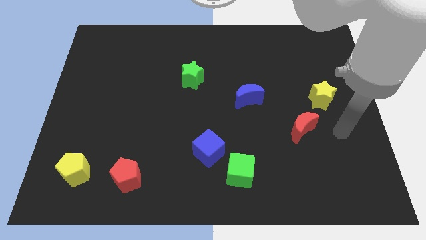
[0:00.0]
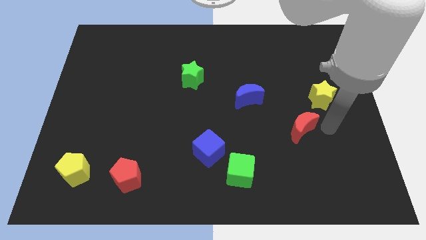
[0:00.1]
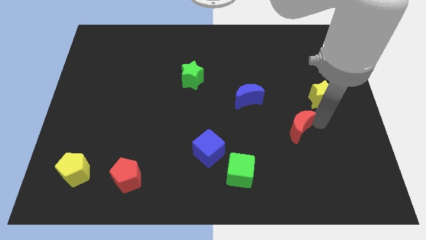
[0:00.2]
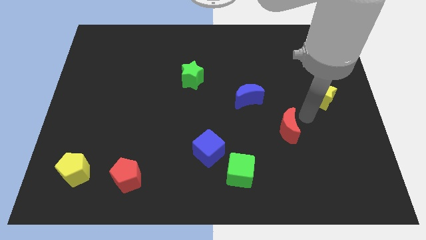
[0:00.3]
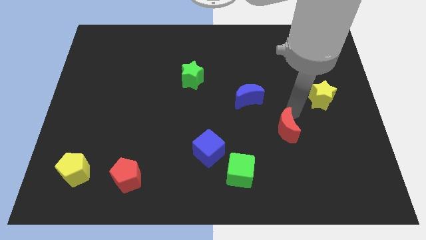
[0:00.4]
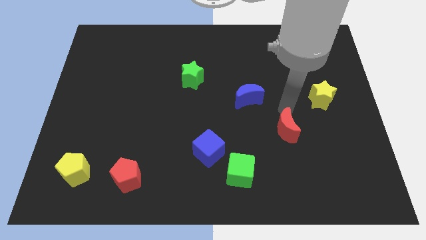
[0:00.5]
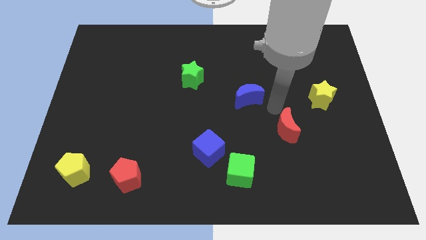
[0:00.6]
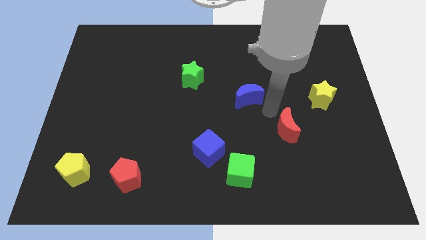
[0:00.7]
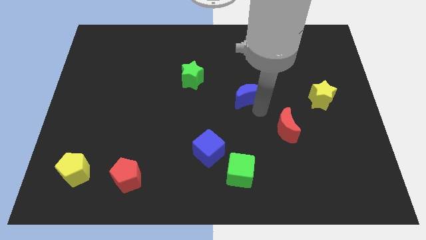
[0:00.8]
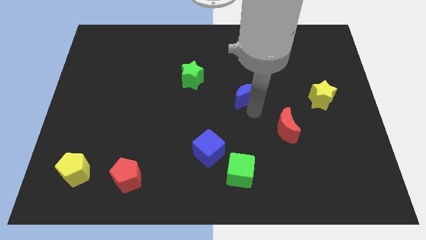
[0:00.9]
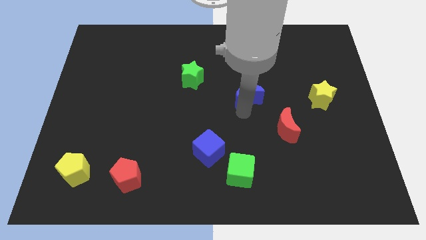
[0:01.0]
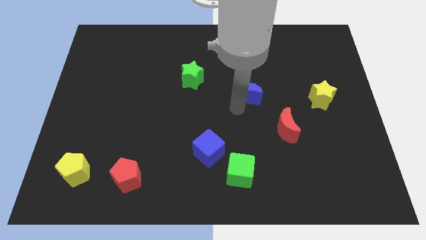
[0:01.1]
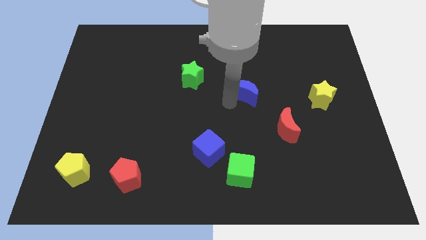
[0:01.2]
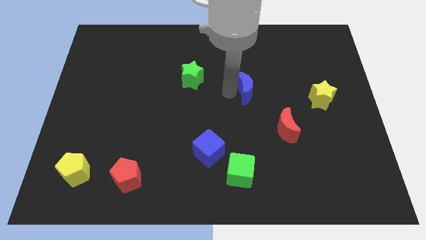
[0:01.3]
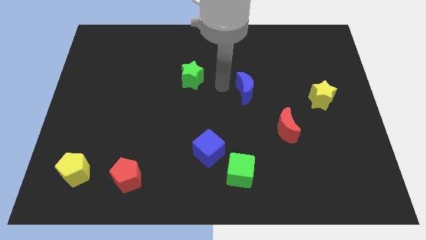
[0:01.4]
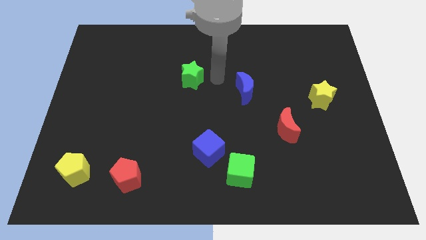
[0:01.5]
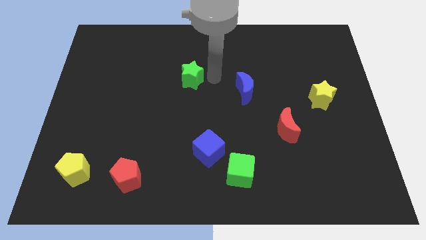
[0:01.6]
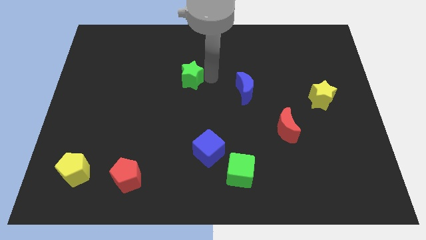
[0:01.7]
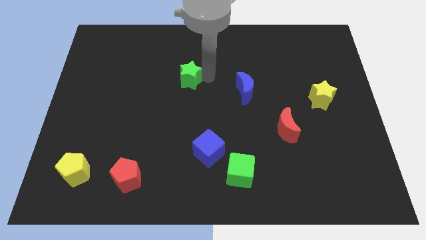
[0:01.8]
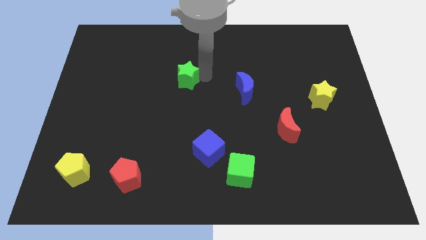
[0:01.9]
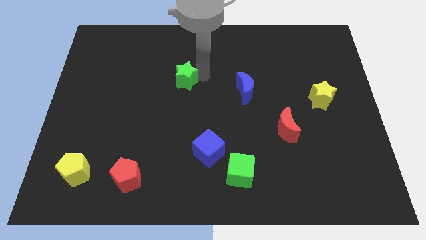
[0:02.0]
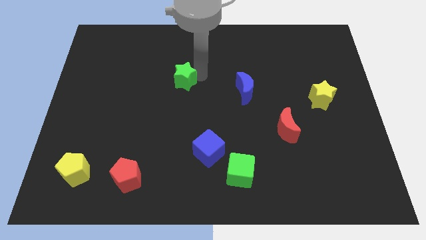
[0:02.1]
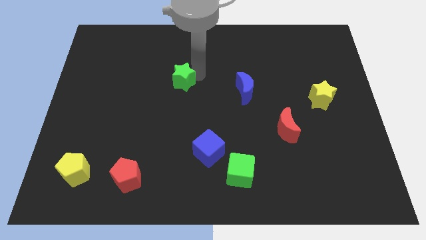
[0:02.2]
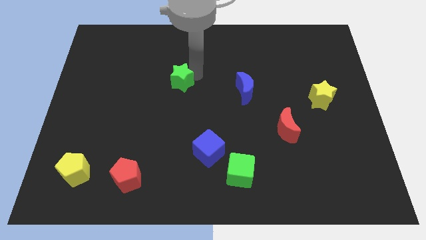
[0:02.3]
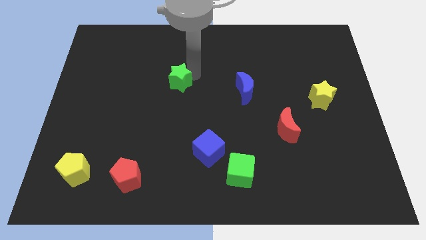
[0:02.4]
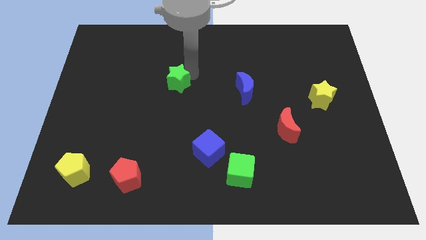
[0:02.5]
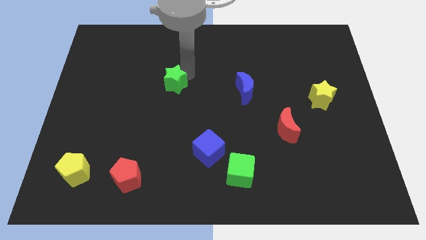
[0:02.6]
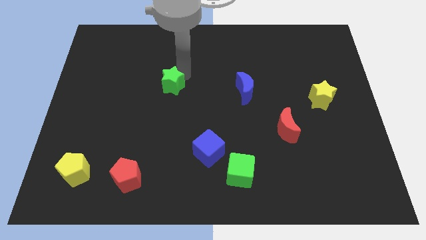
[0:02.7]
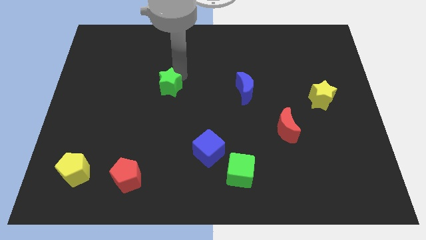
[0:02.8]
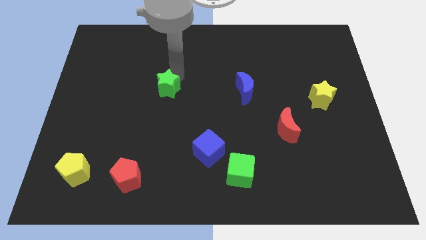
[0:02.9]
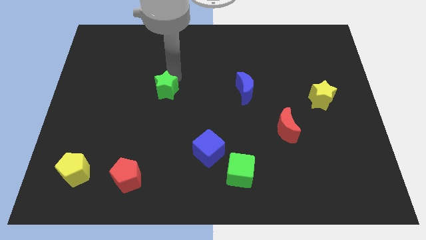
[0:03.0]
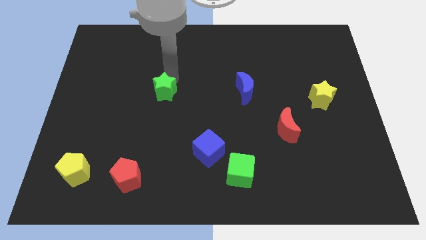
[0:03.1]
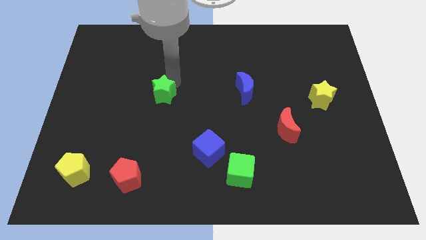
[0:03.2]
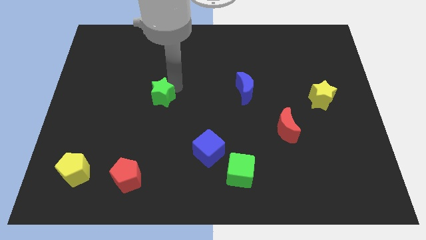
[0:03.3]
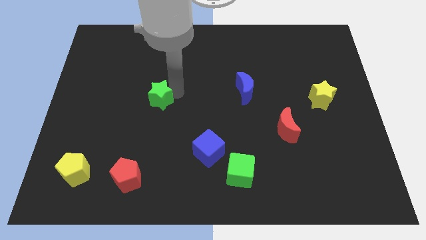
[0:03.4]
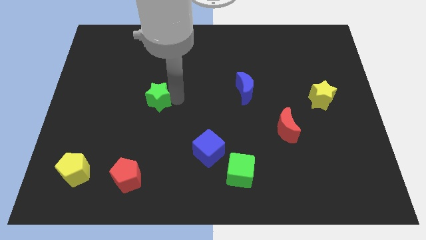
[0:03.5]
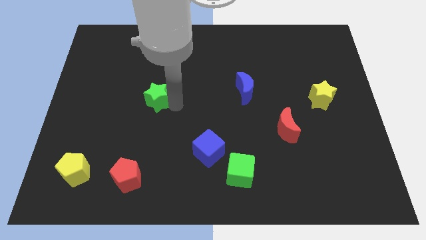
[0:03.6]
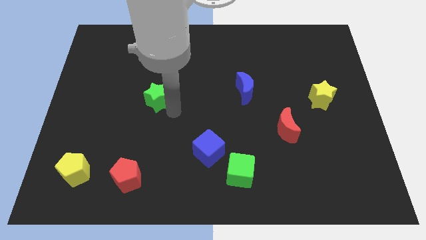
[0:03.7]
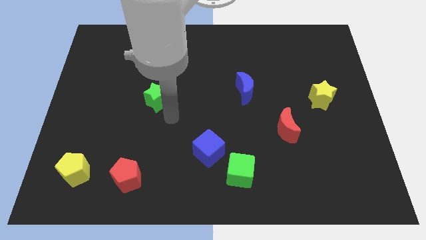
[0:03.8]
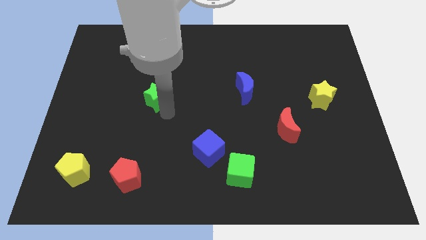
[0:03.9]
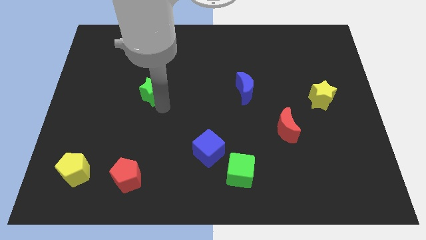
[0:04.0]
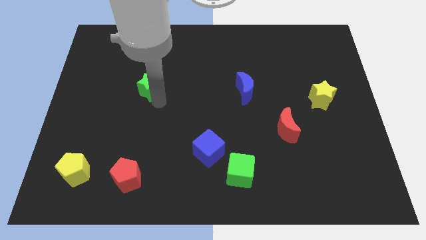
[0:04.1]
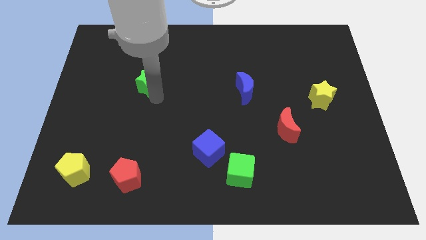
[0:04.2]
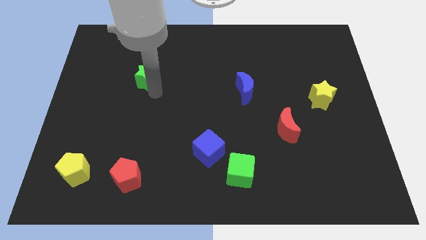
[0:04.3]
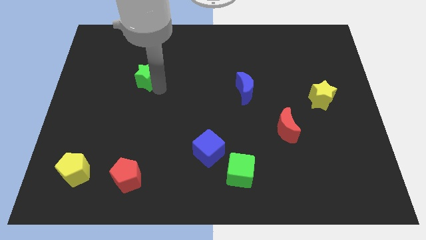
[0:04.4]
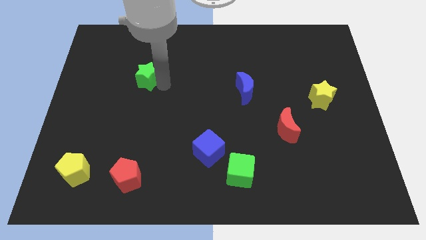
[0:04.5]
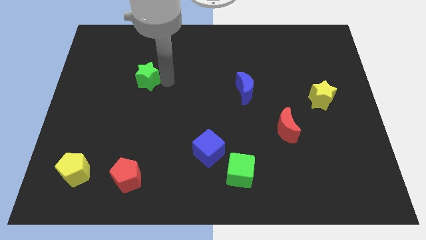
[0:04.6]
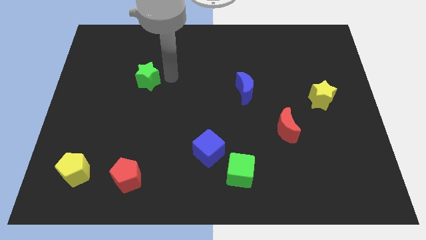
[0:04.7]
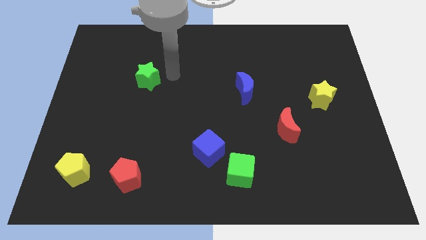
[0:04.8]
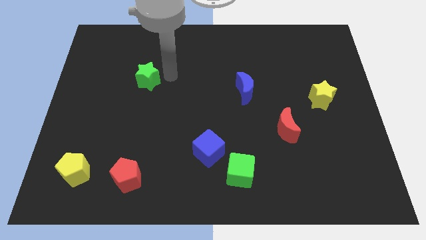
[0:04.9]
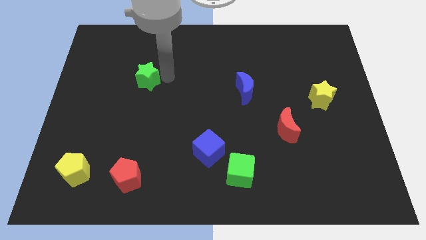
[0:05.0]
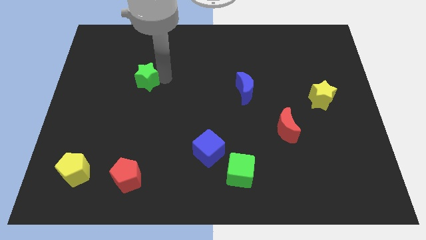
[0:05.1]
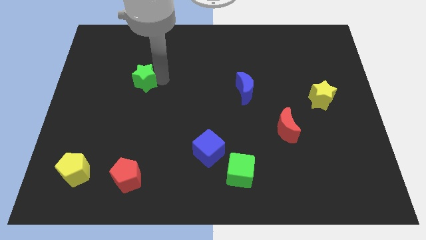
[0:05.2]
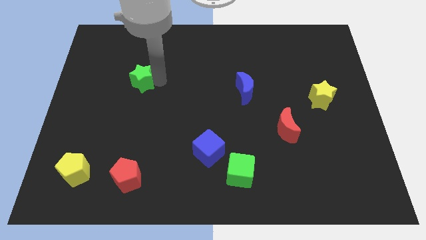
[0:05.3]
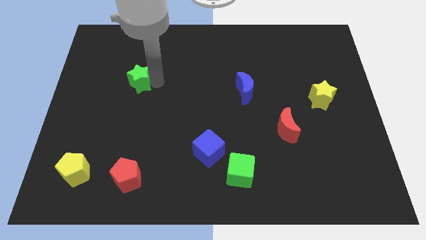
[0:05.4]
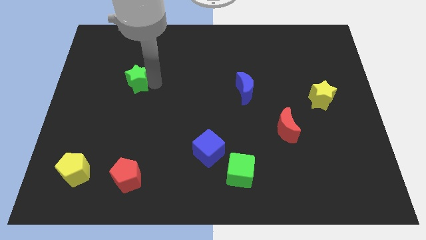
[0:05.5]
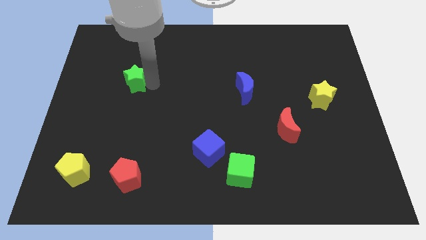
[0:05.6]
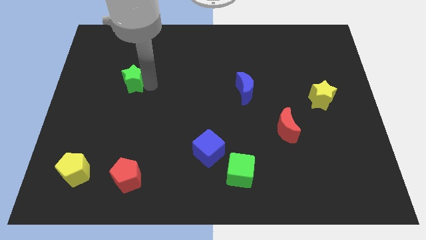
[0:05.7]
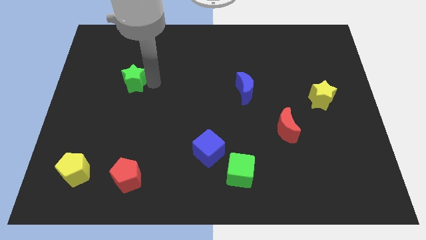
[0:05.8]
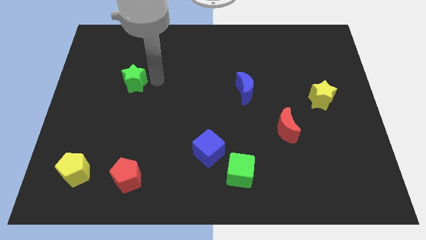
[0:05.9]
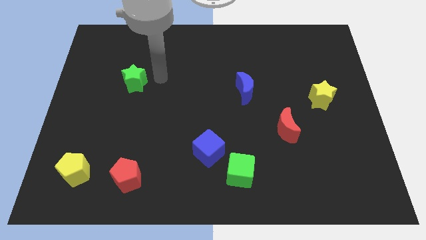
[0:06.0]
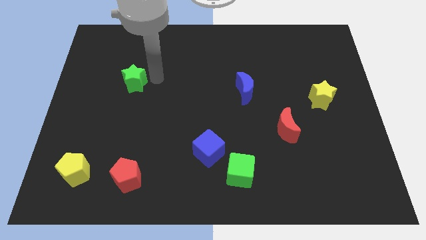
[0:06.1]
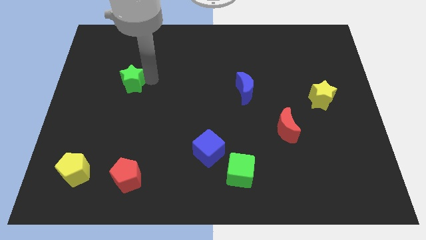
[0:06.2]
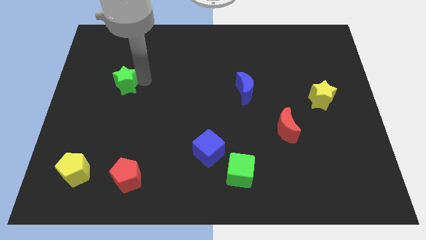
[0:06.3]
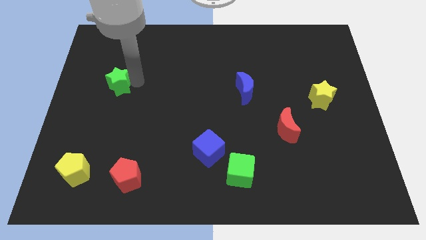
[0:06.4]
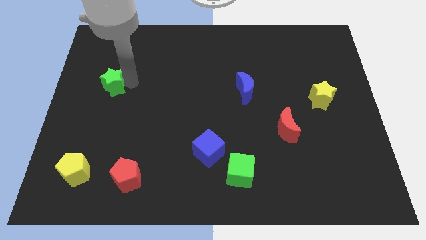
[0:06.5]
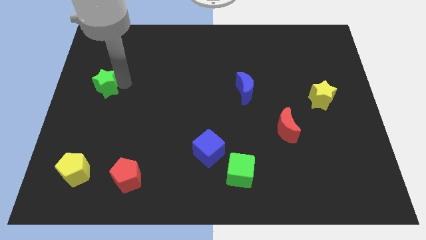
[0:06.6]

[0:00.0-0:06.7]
push the green star to the center left
